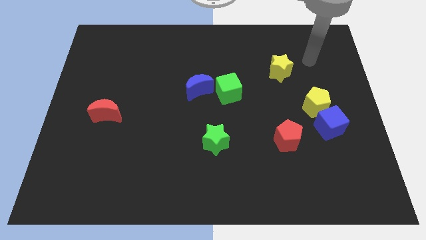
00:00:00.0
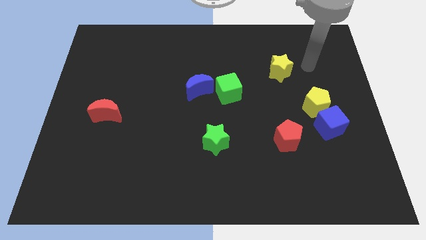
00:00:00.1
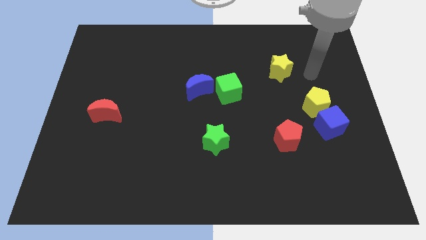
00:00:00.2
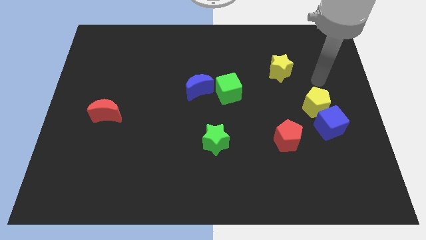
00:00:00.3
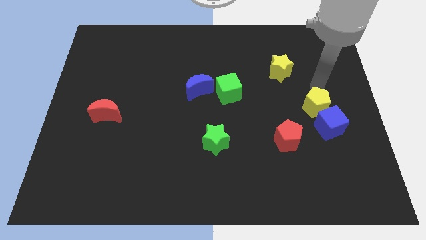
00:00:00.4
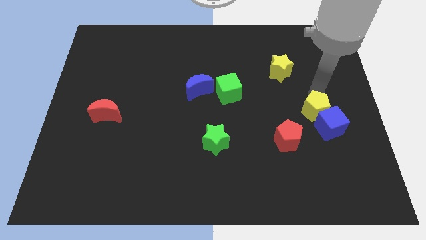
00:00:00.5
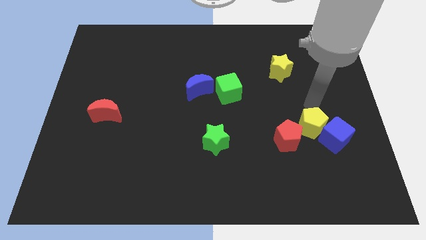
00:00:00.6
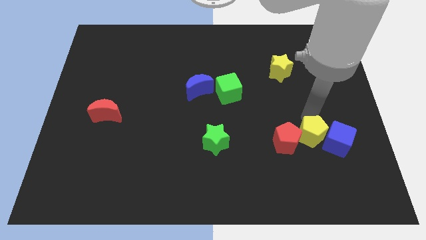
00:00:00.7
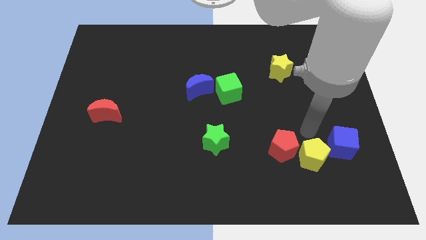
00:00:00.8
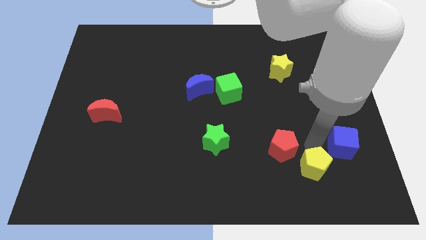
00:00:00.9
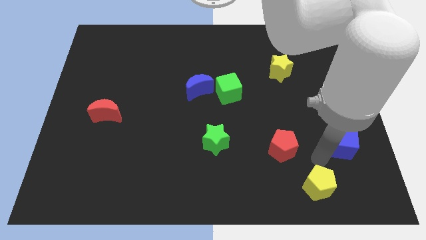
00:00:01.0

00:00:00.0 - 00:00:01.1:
separate the blue cube from the yellow pentagon

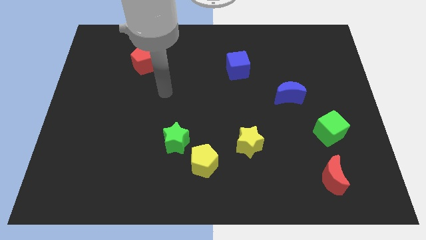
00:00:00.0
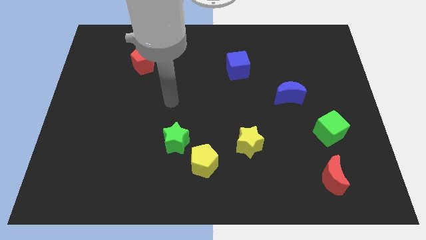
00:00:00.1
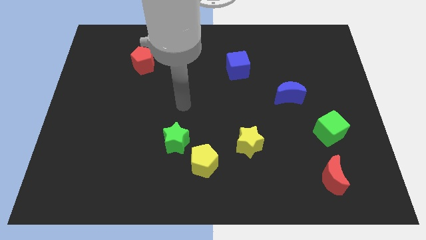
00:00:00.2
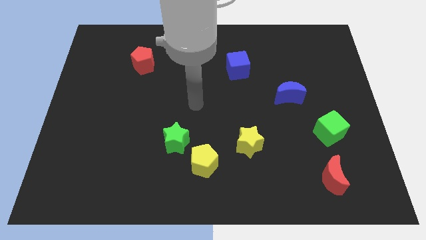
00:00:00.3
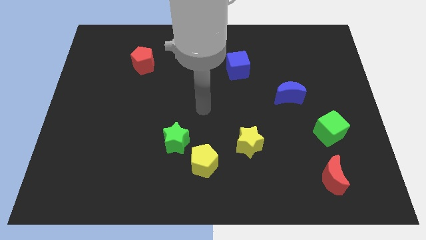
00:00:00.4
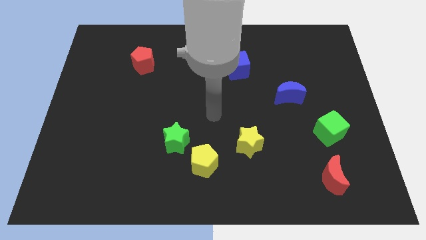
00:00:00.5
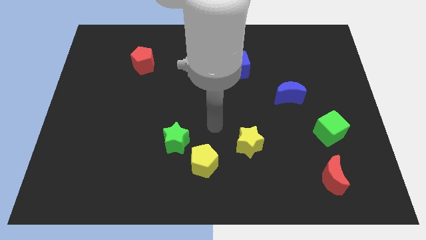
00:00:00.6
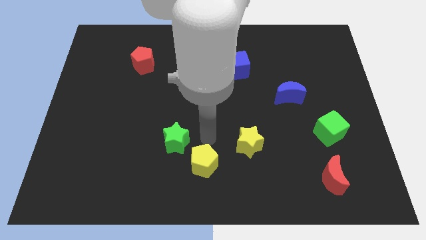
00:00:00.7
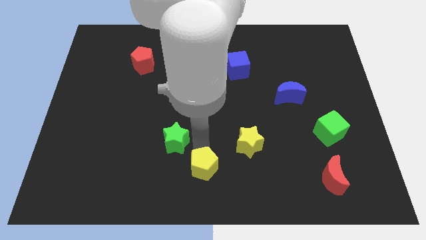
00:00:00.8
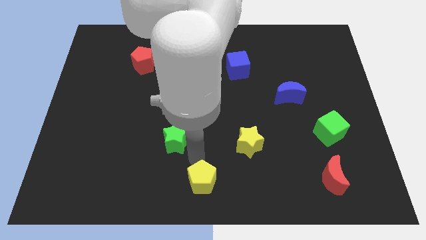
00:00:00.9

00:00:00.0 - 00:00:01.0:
move the green star away from the yellow pentagon

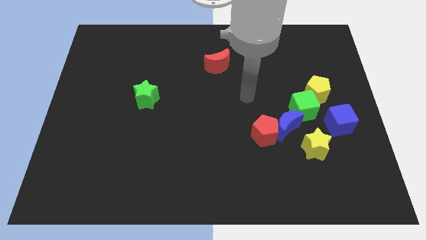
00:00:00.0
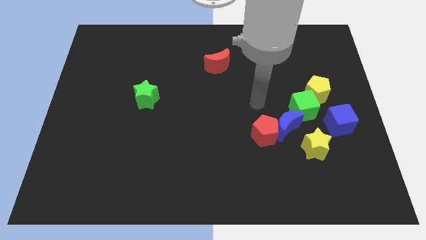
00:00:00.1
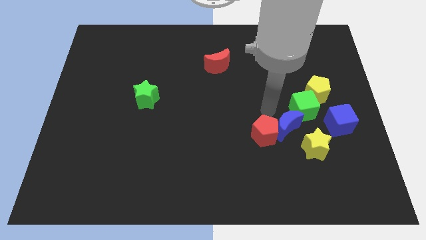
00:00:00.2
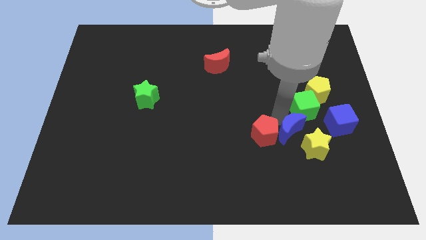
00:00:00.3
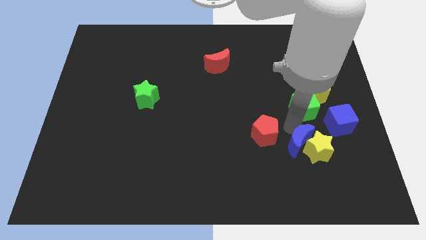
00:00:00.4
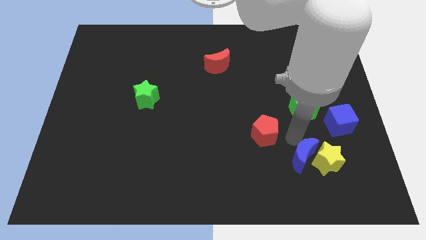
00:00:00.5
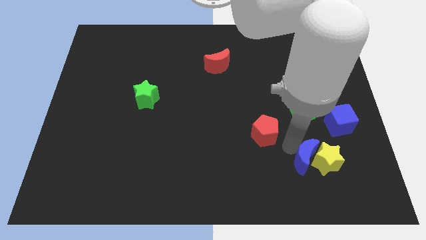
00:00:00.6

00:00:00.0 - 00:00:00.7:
move the red pentagon away from the blue moon

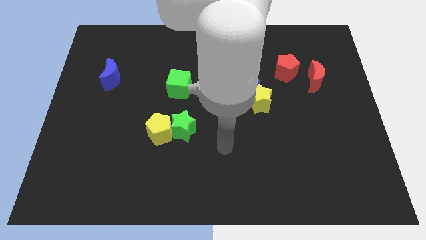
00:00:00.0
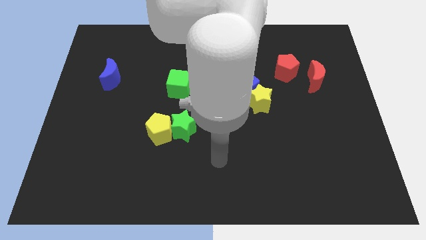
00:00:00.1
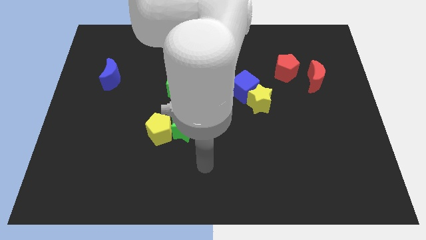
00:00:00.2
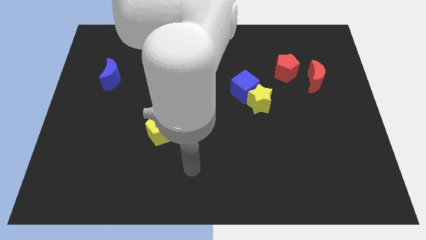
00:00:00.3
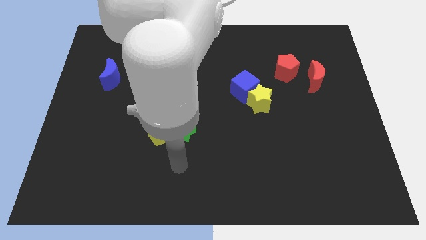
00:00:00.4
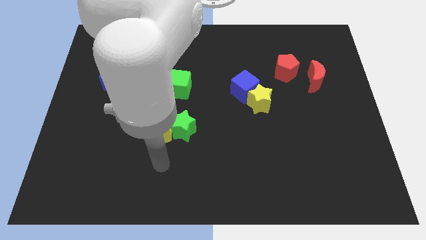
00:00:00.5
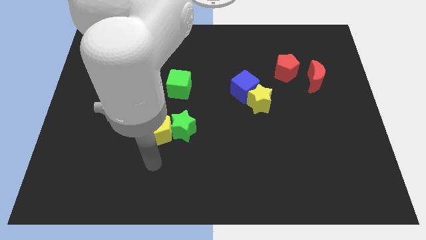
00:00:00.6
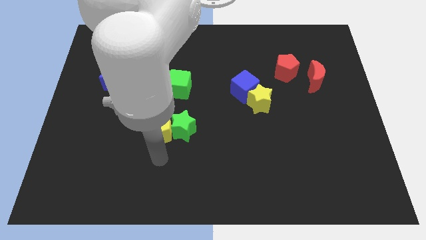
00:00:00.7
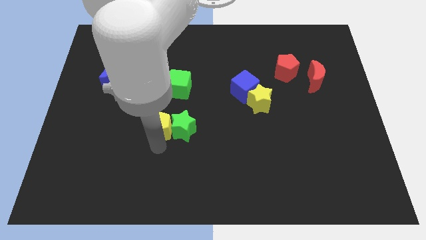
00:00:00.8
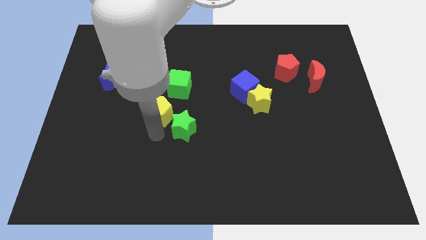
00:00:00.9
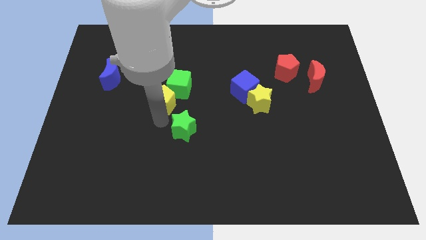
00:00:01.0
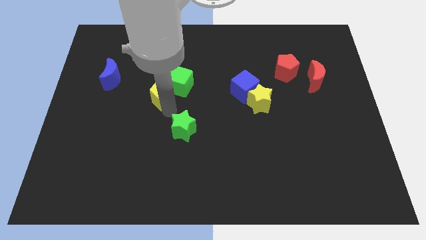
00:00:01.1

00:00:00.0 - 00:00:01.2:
separate the green star from the yellow pentagon

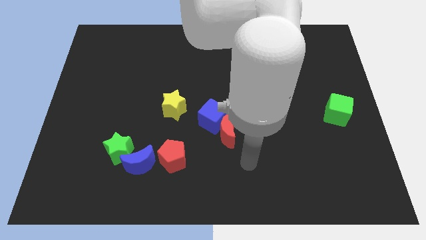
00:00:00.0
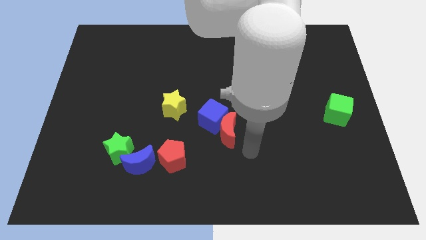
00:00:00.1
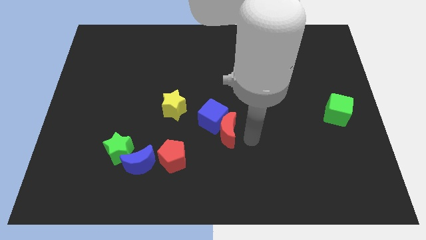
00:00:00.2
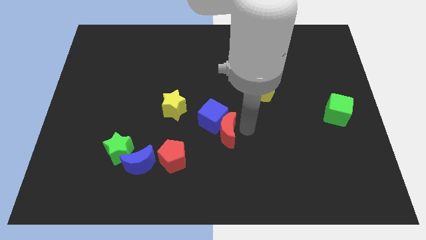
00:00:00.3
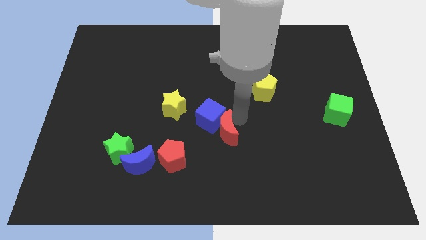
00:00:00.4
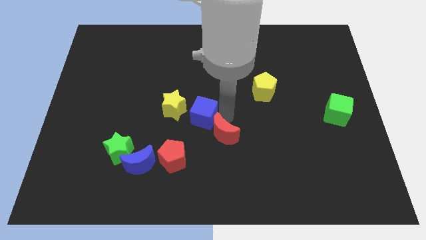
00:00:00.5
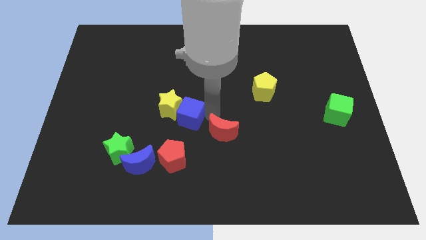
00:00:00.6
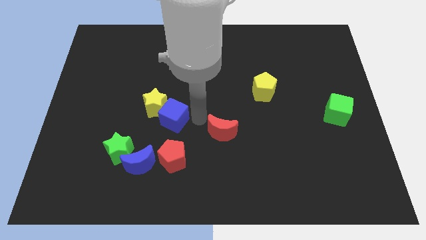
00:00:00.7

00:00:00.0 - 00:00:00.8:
pull the red moon apart from the blue cube

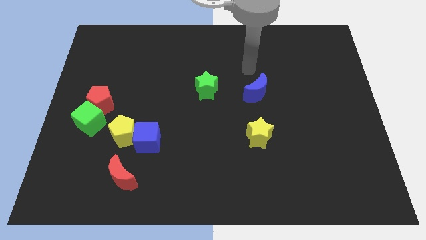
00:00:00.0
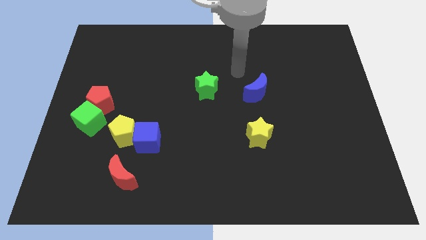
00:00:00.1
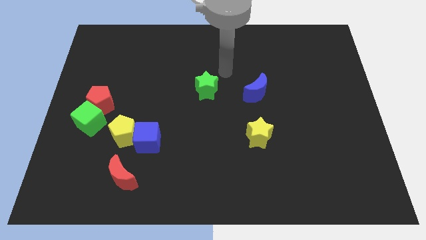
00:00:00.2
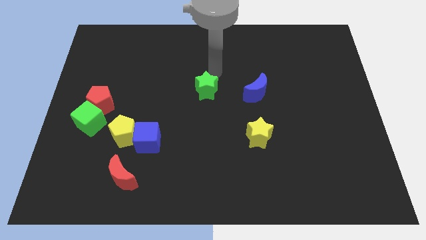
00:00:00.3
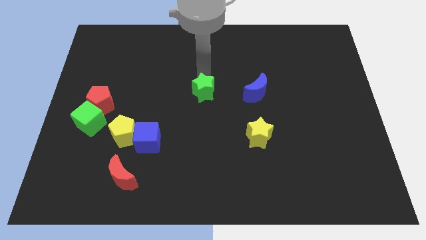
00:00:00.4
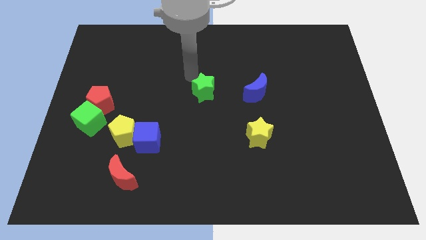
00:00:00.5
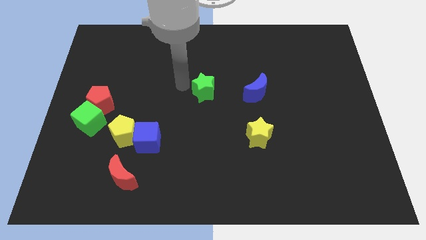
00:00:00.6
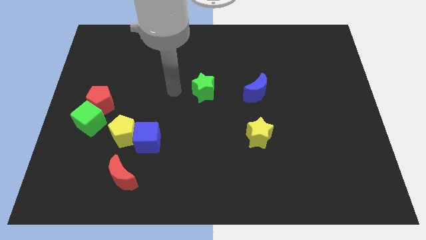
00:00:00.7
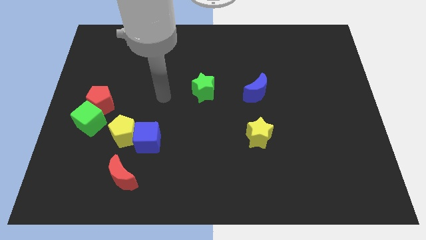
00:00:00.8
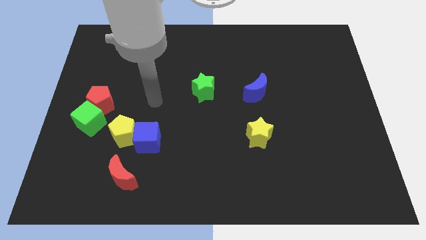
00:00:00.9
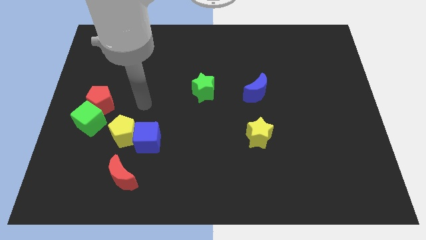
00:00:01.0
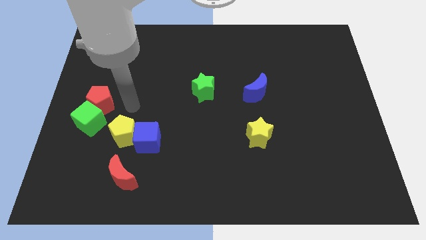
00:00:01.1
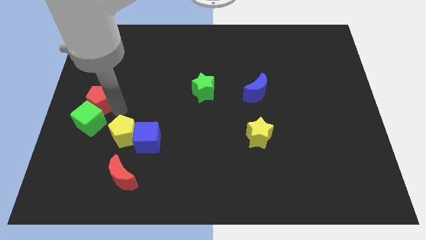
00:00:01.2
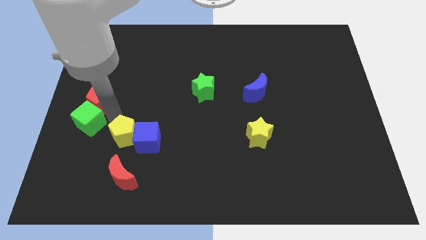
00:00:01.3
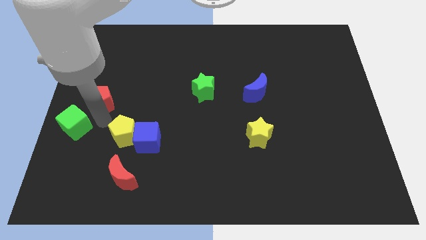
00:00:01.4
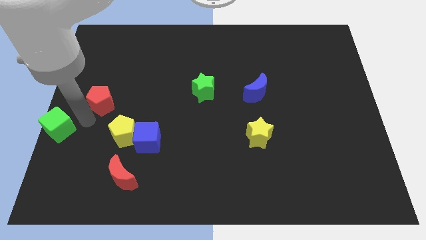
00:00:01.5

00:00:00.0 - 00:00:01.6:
pull the red pentagon apart from the green cube

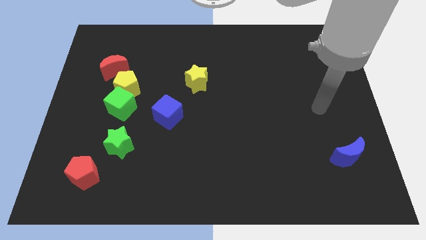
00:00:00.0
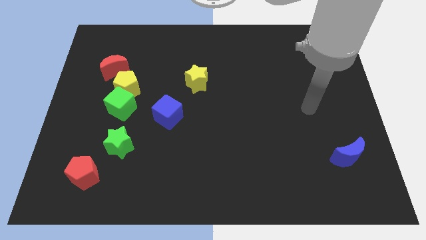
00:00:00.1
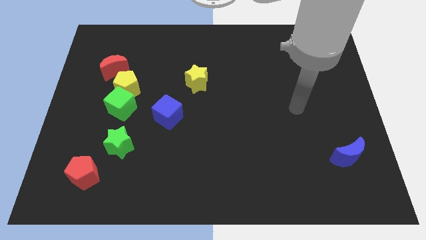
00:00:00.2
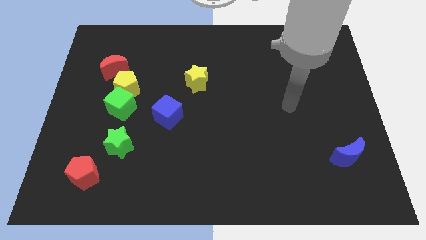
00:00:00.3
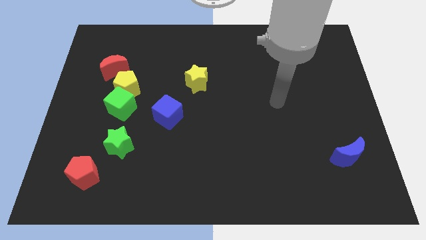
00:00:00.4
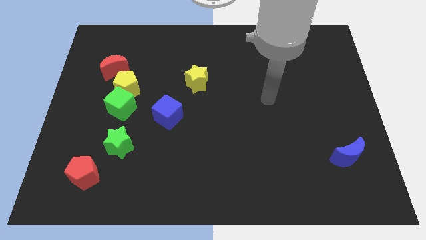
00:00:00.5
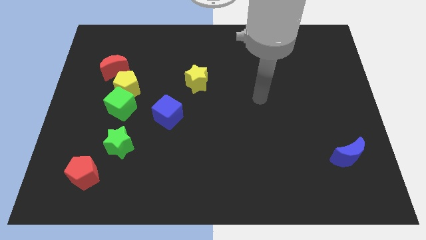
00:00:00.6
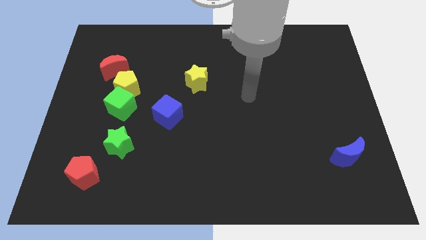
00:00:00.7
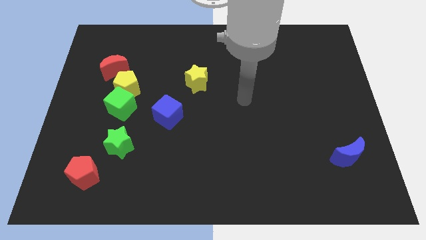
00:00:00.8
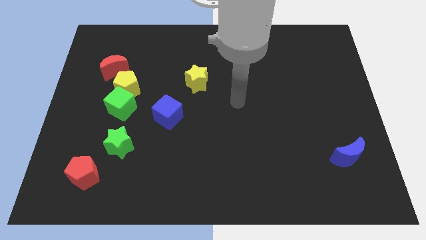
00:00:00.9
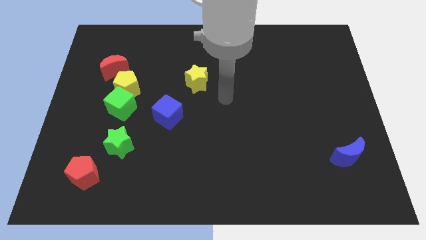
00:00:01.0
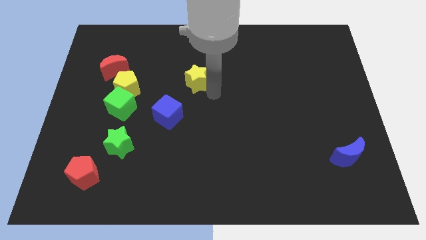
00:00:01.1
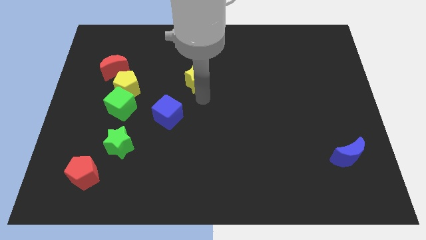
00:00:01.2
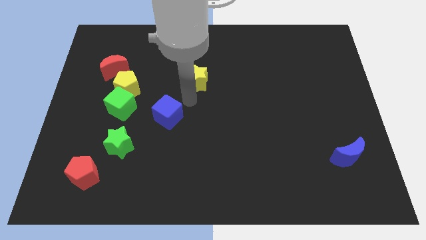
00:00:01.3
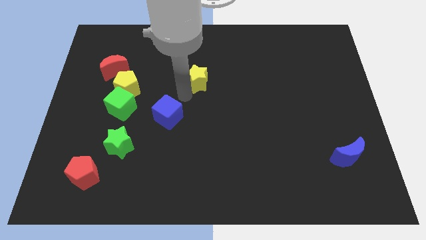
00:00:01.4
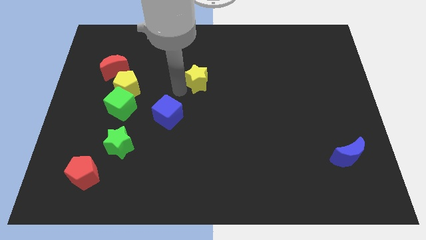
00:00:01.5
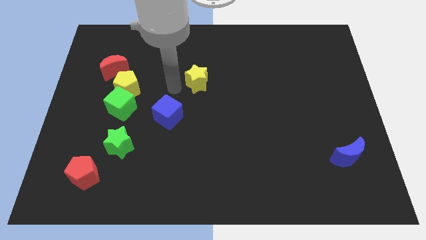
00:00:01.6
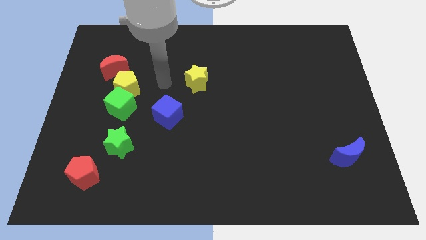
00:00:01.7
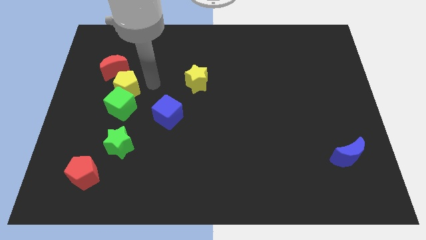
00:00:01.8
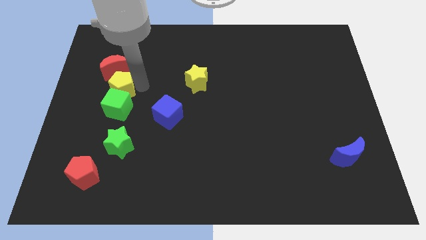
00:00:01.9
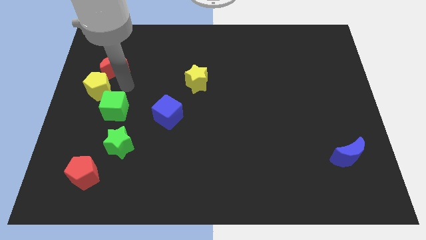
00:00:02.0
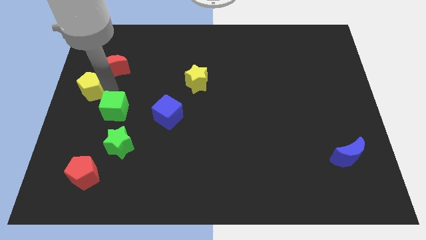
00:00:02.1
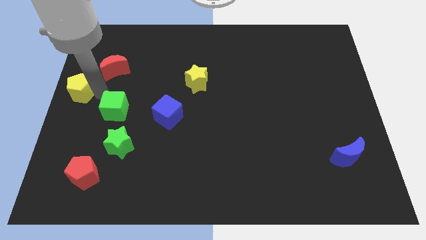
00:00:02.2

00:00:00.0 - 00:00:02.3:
separate the green cube from the yellow pentagon

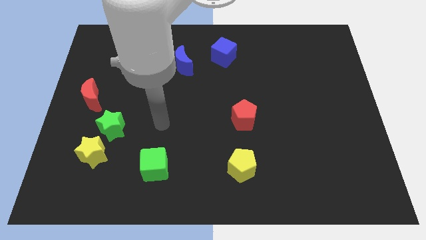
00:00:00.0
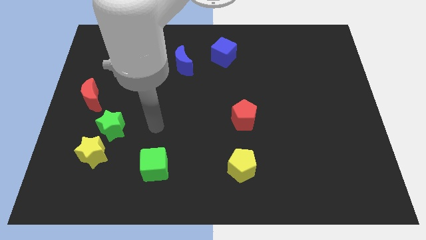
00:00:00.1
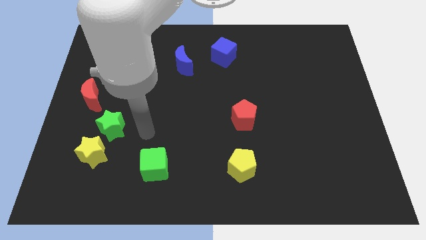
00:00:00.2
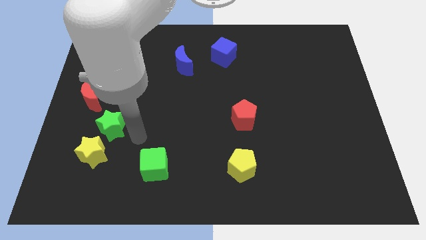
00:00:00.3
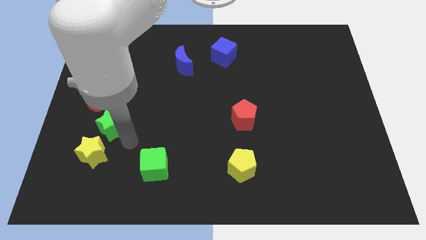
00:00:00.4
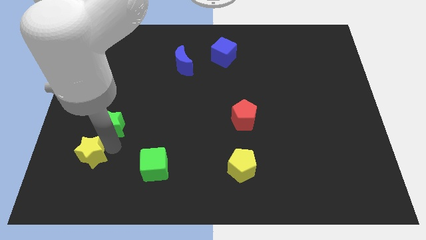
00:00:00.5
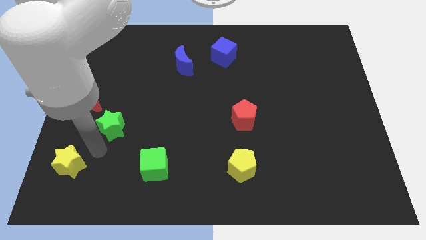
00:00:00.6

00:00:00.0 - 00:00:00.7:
pull the green star apart from the yellow star

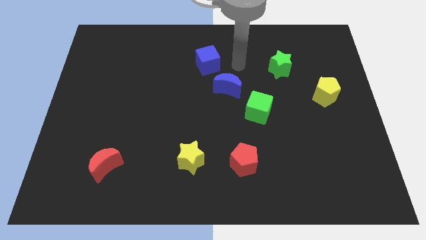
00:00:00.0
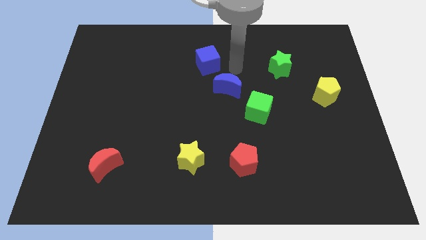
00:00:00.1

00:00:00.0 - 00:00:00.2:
separate the blue cube from the blue moon
